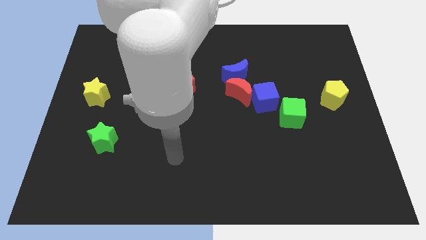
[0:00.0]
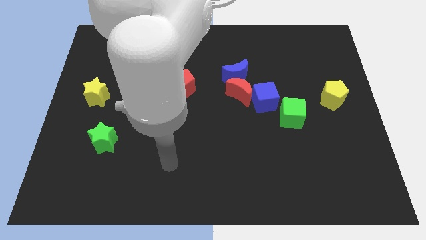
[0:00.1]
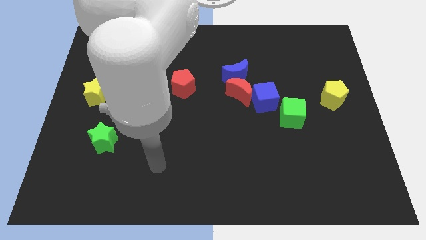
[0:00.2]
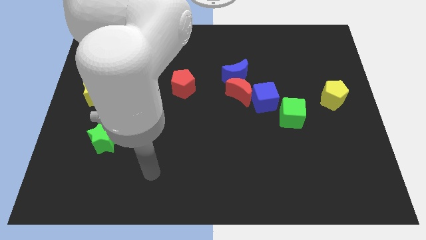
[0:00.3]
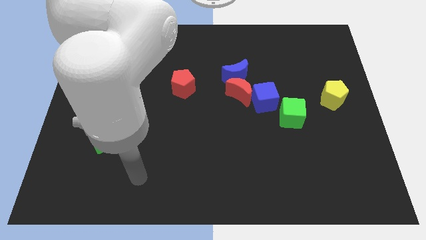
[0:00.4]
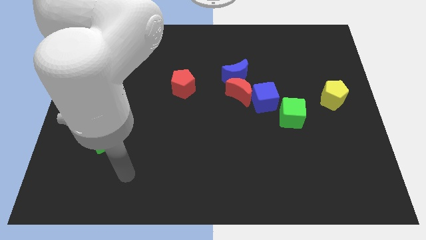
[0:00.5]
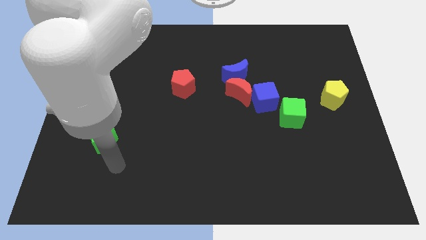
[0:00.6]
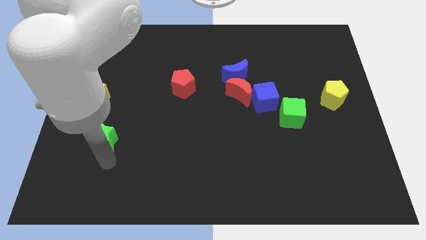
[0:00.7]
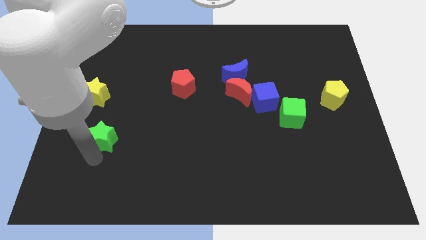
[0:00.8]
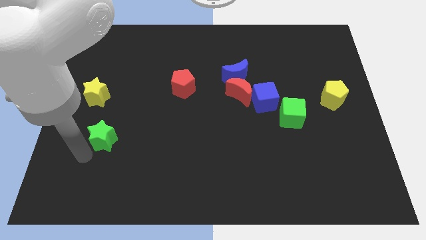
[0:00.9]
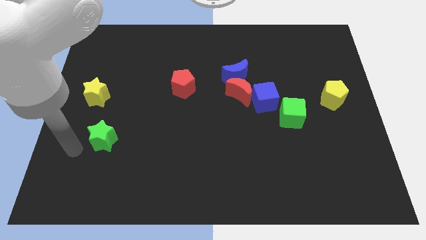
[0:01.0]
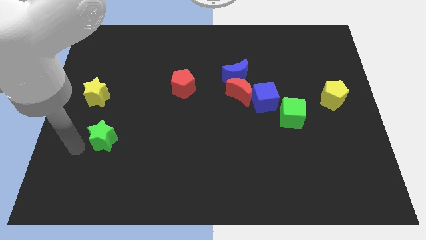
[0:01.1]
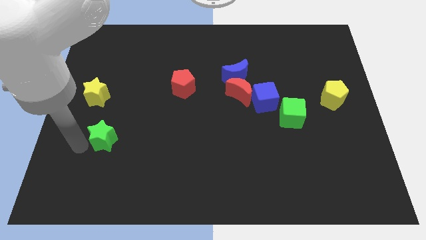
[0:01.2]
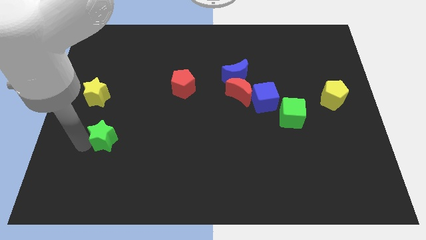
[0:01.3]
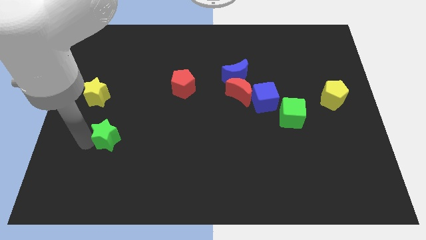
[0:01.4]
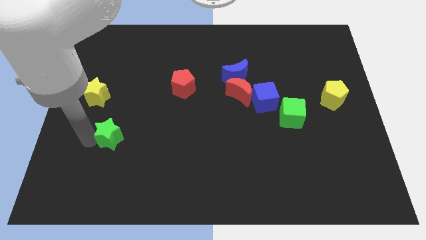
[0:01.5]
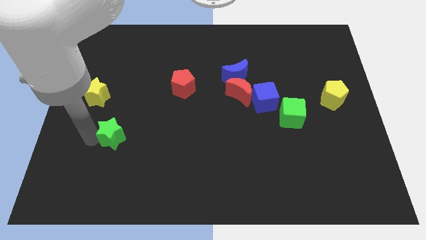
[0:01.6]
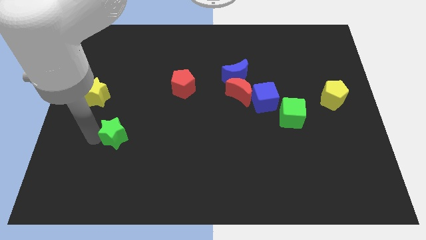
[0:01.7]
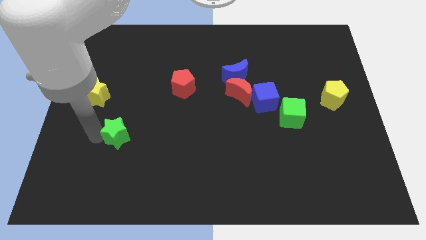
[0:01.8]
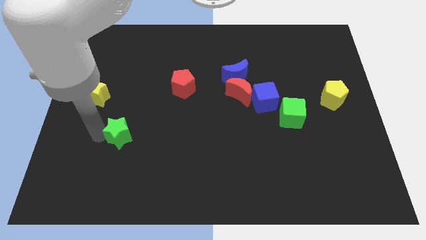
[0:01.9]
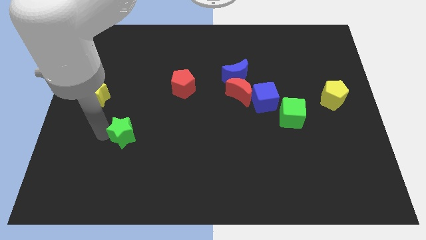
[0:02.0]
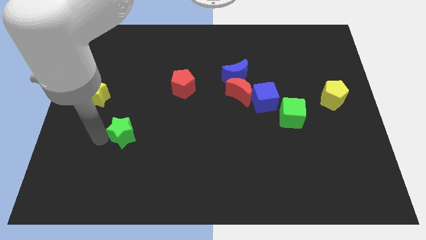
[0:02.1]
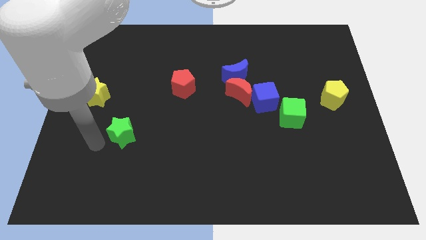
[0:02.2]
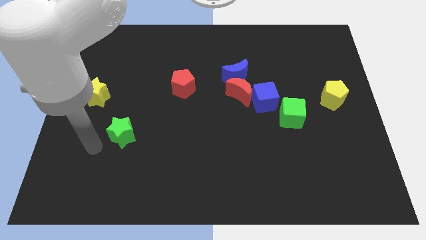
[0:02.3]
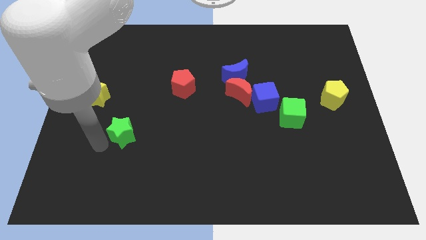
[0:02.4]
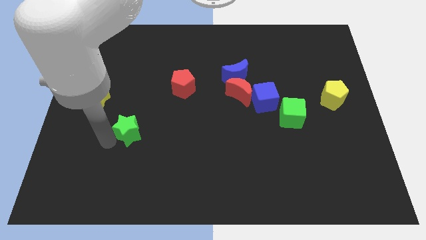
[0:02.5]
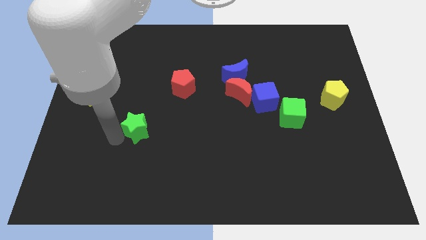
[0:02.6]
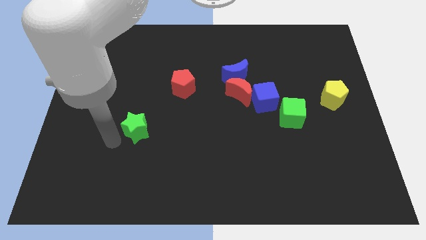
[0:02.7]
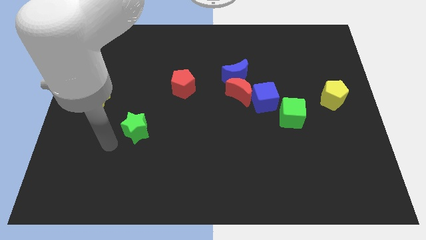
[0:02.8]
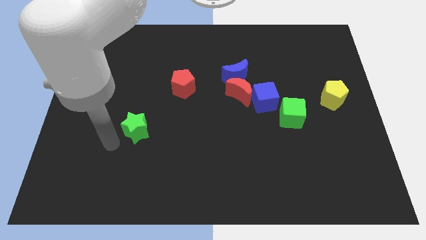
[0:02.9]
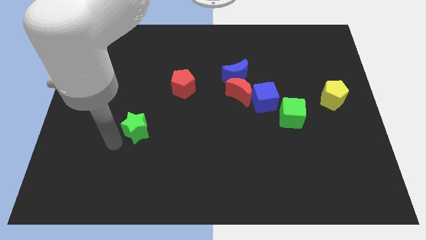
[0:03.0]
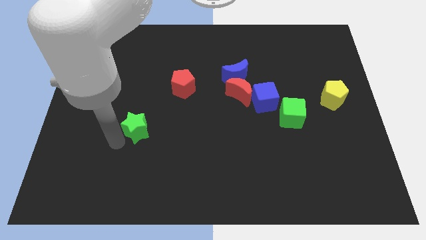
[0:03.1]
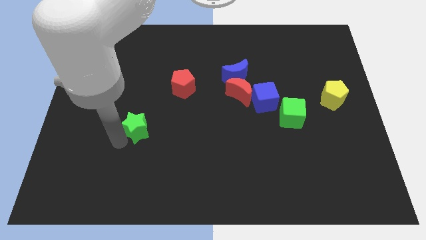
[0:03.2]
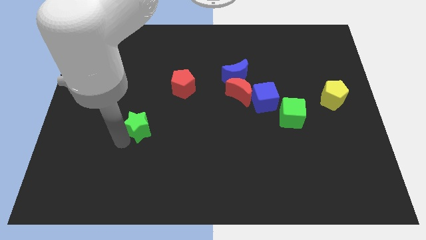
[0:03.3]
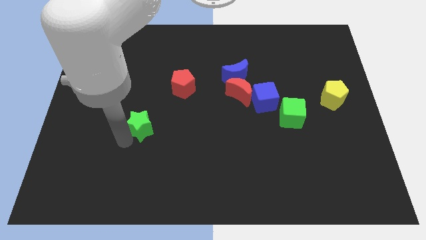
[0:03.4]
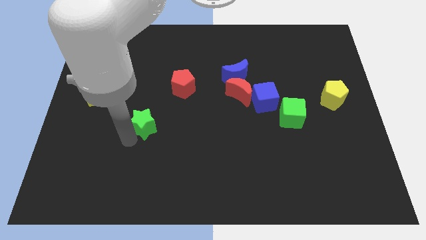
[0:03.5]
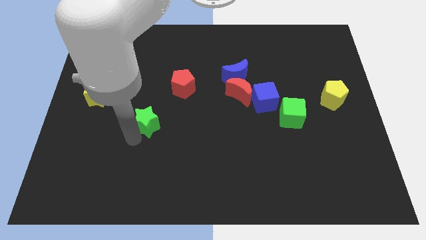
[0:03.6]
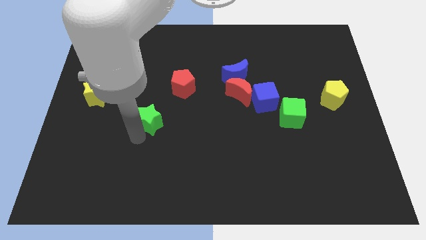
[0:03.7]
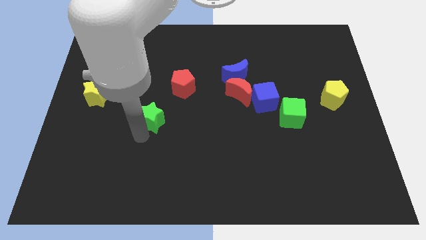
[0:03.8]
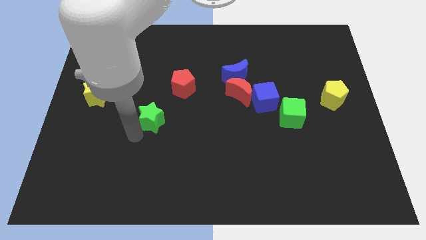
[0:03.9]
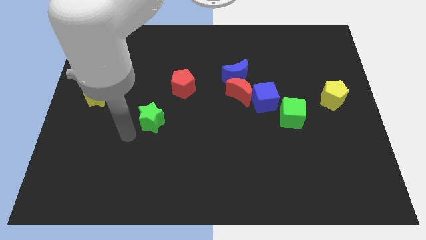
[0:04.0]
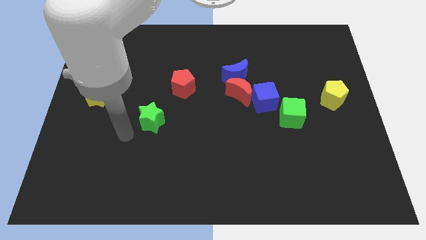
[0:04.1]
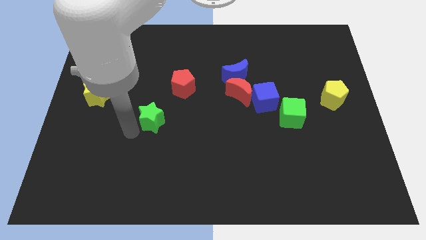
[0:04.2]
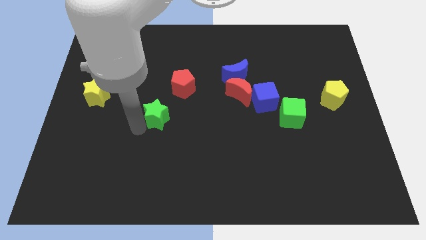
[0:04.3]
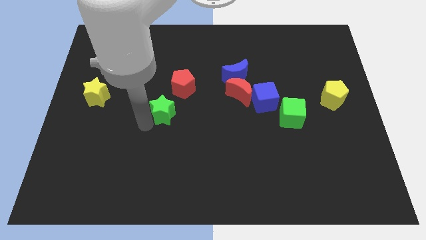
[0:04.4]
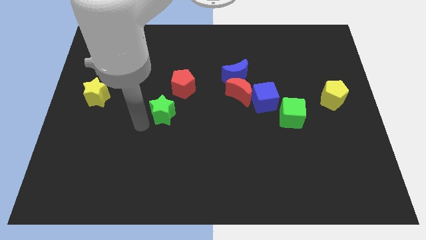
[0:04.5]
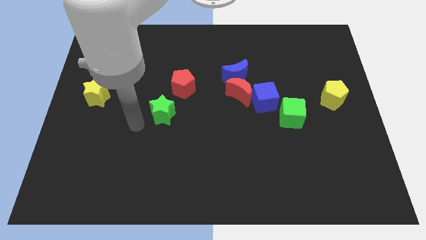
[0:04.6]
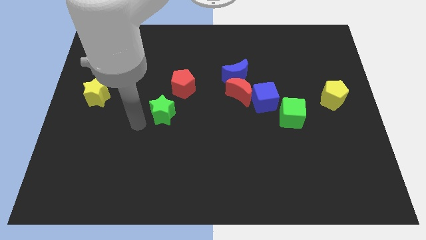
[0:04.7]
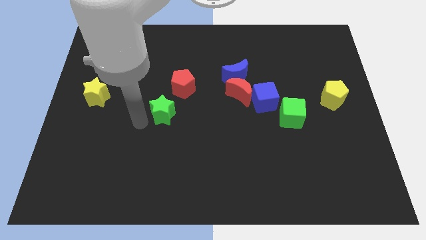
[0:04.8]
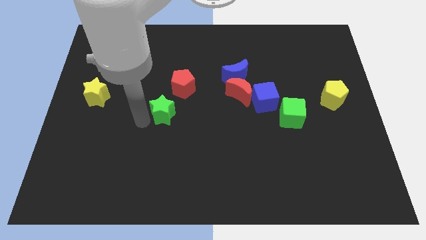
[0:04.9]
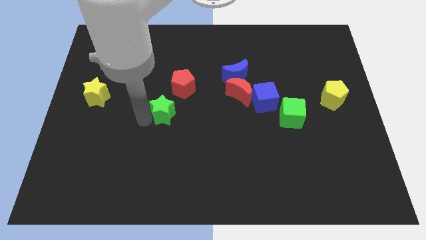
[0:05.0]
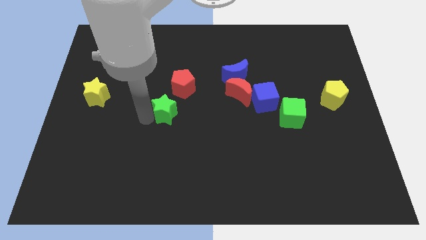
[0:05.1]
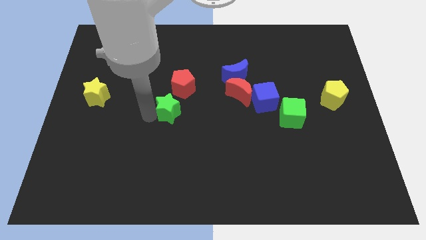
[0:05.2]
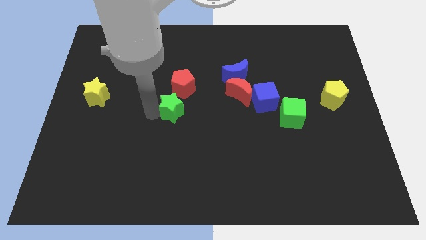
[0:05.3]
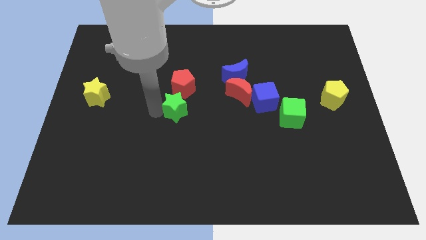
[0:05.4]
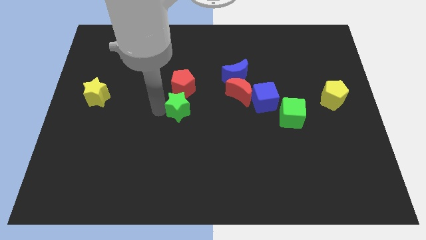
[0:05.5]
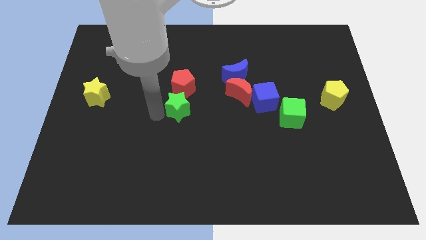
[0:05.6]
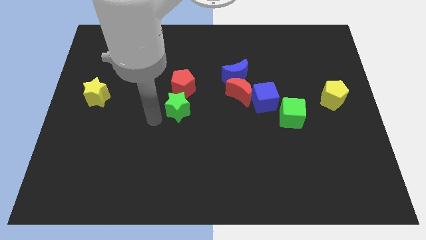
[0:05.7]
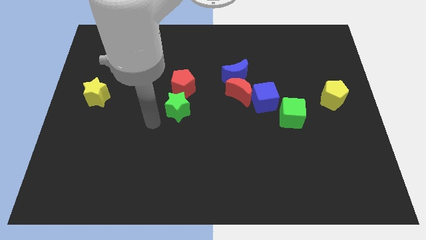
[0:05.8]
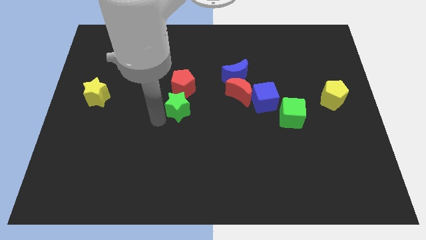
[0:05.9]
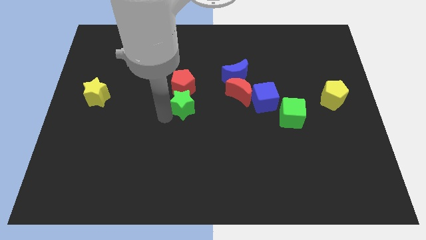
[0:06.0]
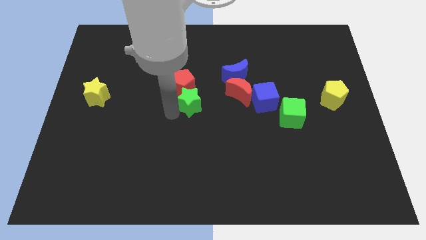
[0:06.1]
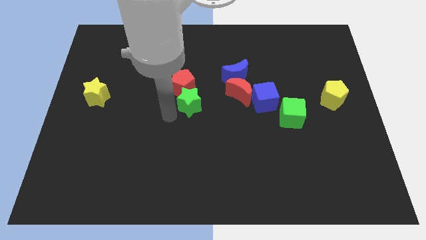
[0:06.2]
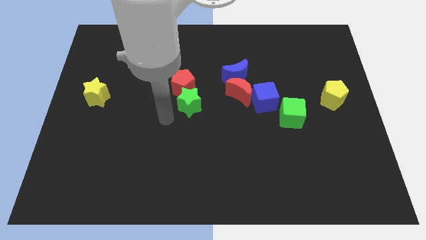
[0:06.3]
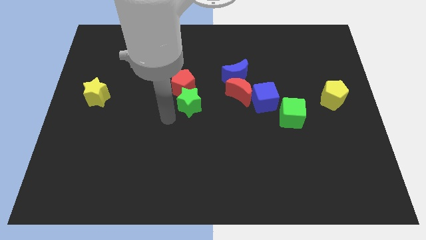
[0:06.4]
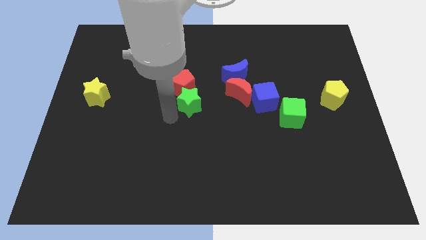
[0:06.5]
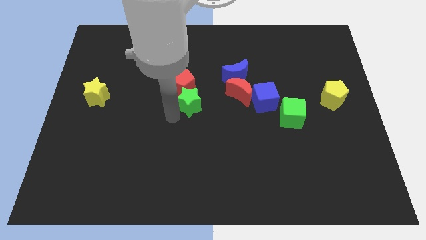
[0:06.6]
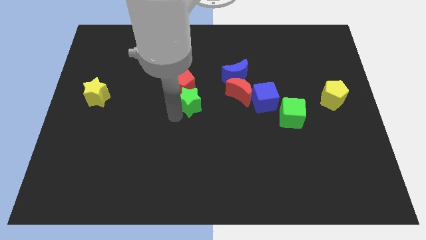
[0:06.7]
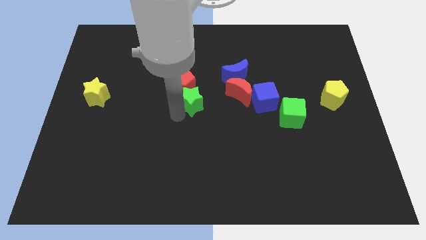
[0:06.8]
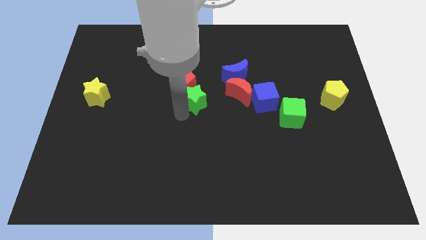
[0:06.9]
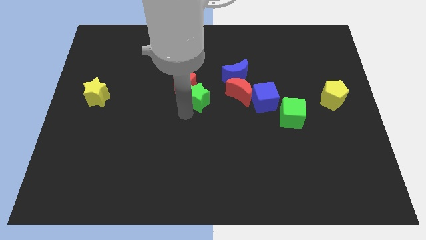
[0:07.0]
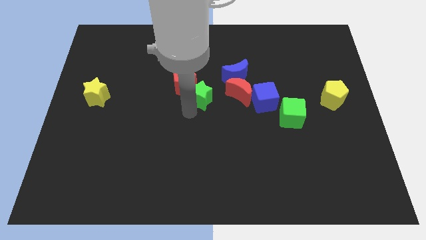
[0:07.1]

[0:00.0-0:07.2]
move the green star right of the red pentagon
